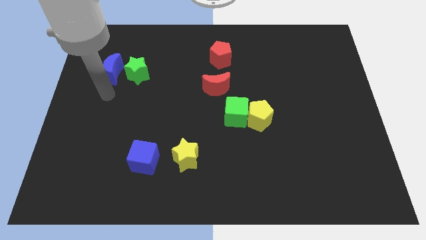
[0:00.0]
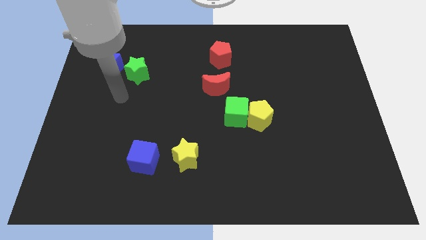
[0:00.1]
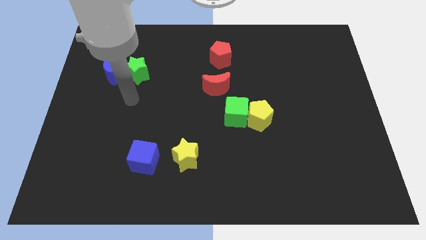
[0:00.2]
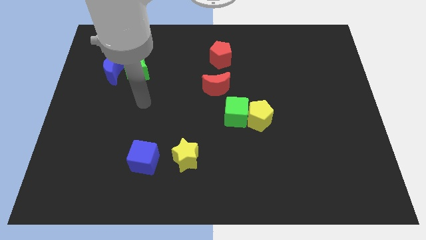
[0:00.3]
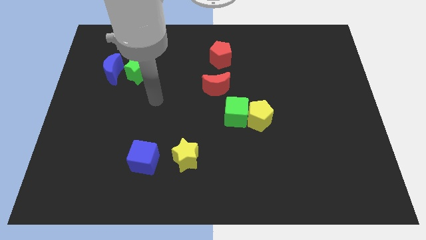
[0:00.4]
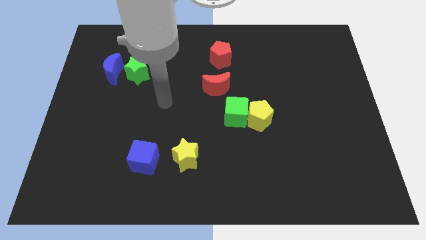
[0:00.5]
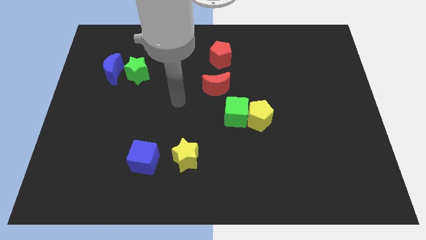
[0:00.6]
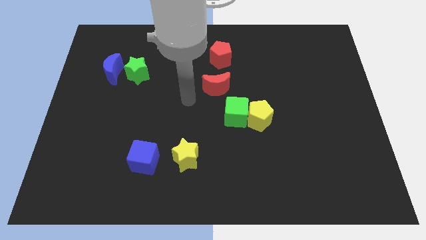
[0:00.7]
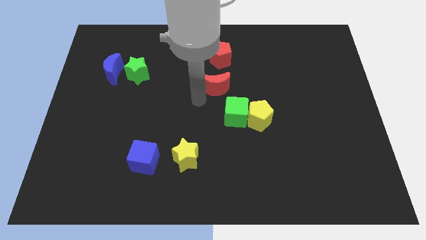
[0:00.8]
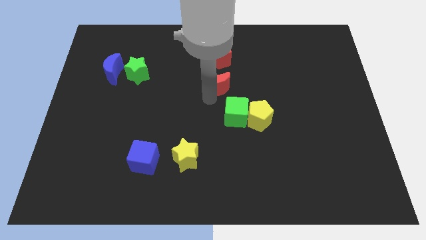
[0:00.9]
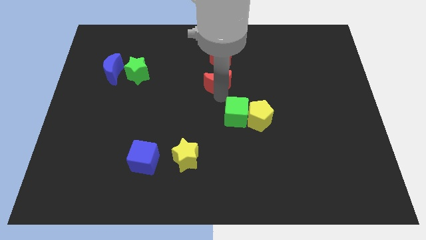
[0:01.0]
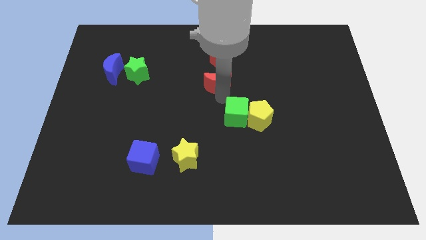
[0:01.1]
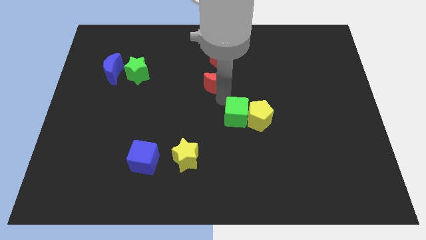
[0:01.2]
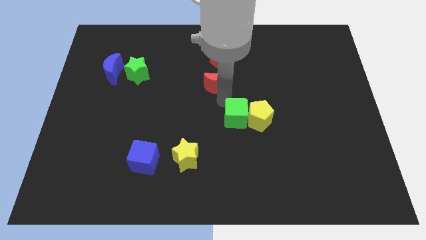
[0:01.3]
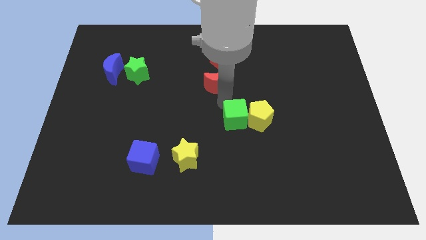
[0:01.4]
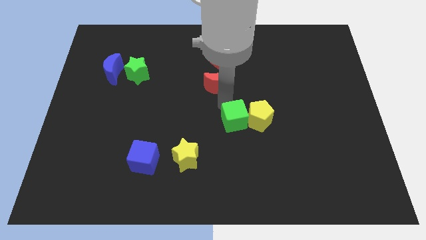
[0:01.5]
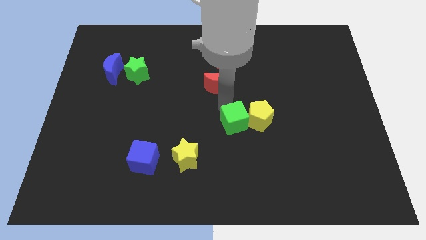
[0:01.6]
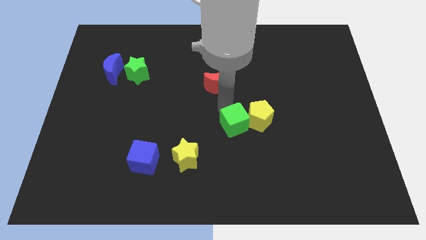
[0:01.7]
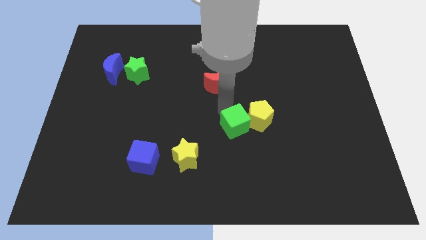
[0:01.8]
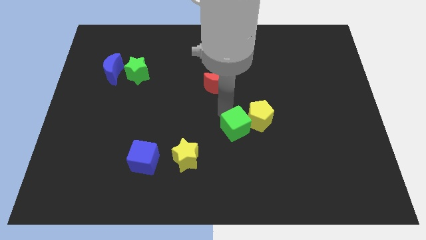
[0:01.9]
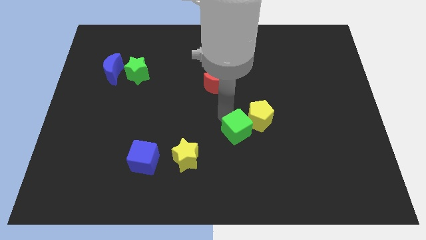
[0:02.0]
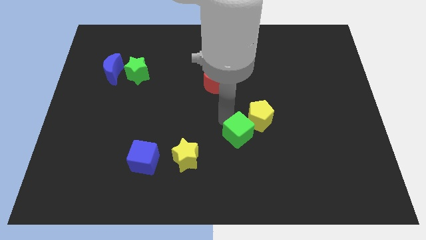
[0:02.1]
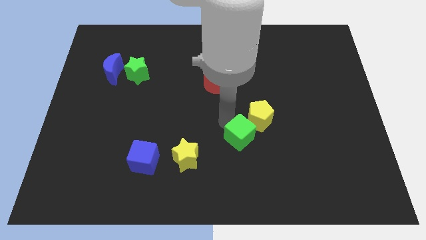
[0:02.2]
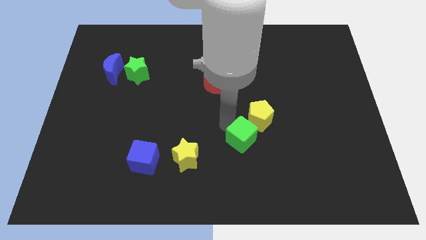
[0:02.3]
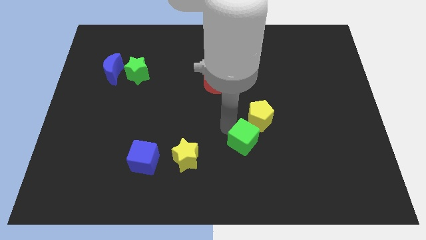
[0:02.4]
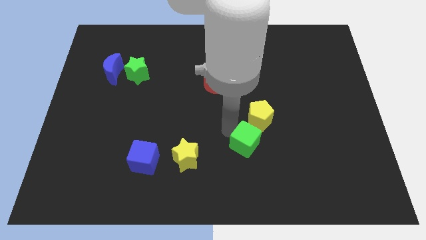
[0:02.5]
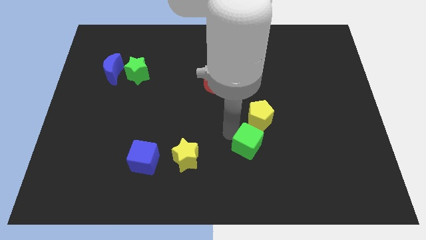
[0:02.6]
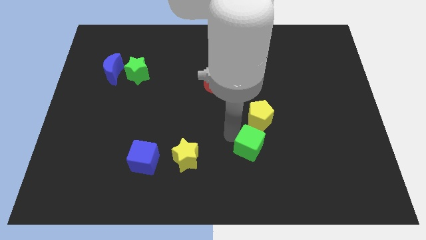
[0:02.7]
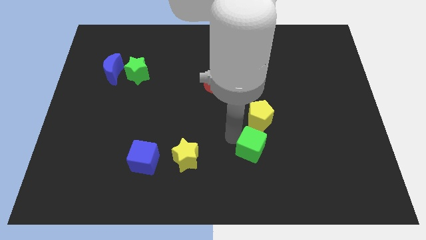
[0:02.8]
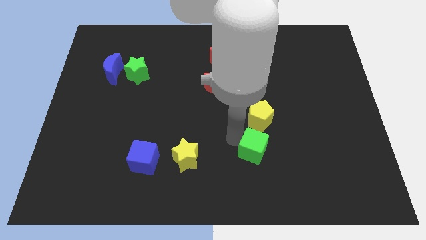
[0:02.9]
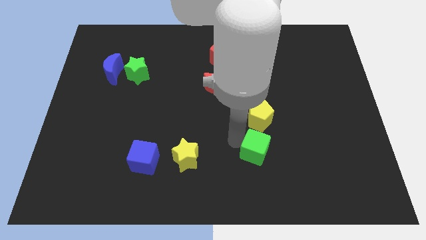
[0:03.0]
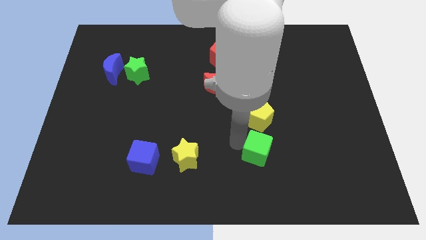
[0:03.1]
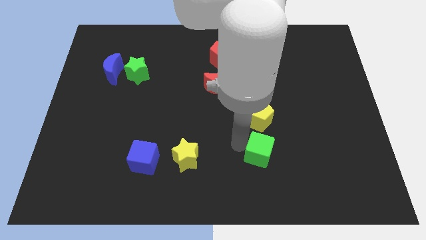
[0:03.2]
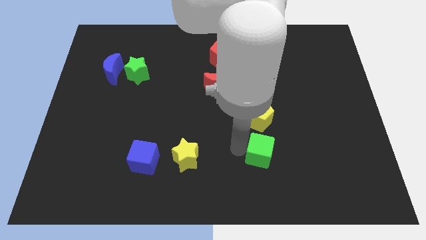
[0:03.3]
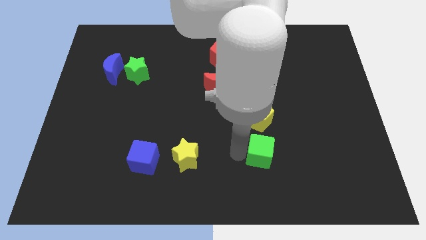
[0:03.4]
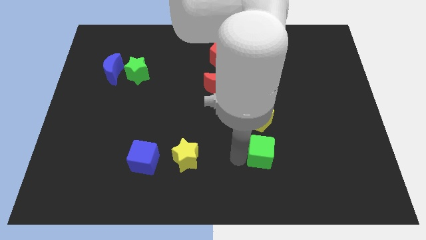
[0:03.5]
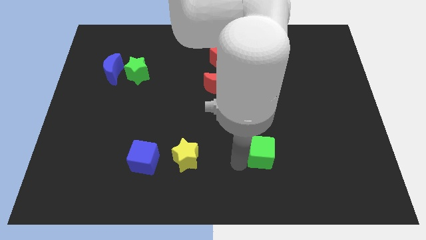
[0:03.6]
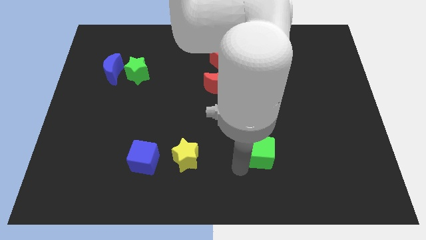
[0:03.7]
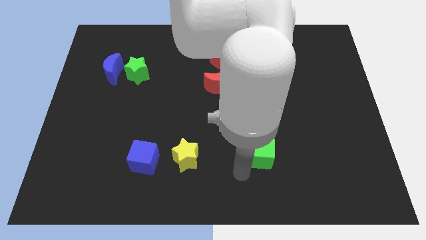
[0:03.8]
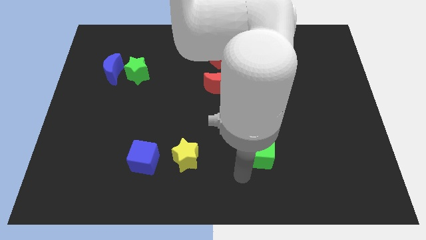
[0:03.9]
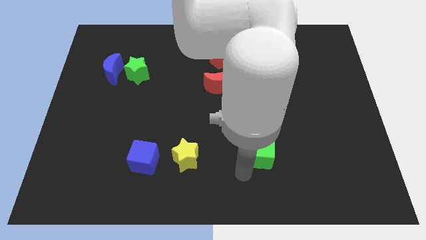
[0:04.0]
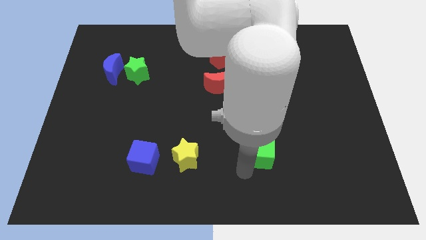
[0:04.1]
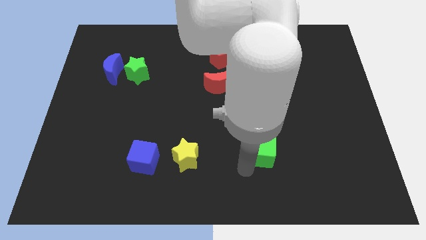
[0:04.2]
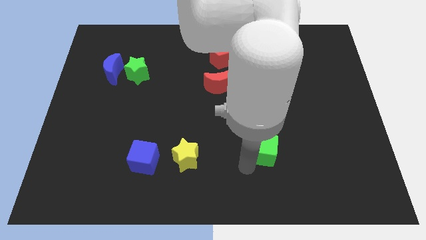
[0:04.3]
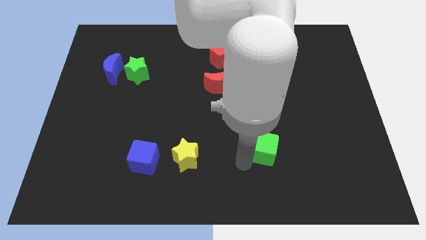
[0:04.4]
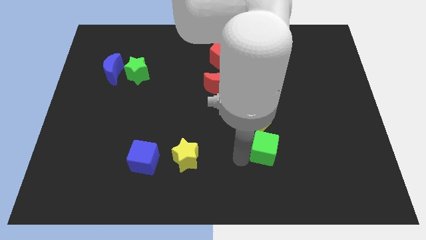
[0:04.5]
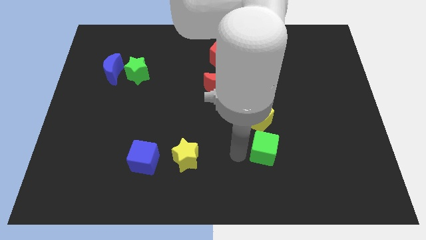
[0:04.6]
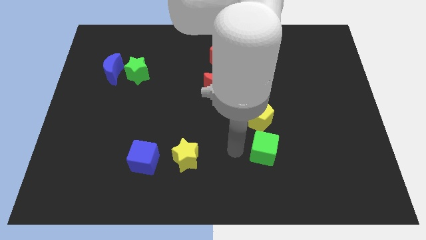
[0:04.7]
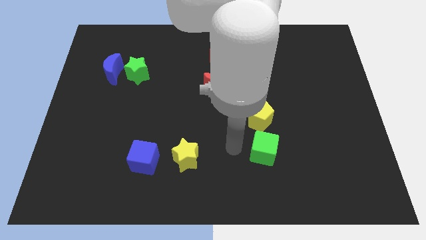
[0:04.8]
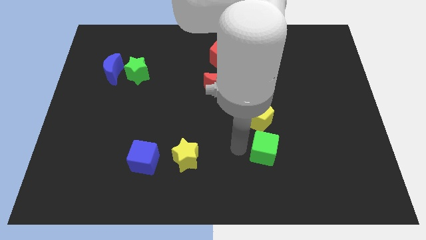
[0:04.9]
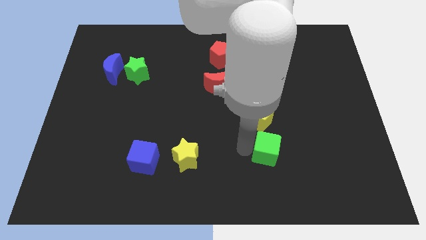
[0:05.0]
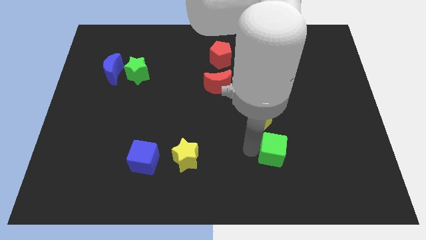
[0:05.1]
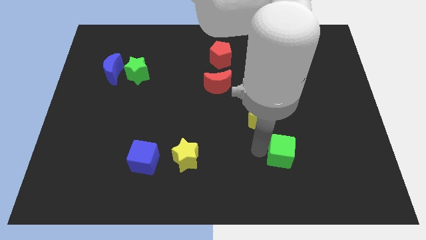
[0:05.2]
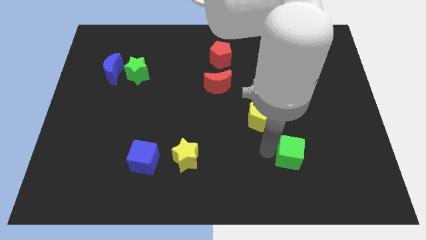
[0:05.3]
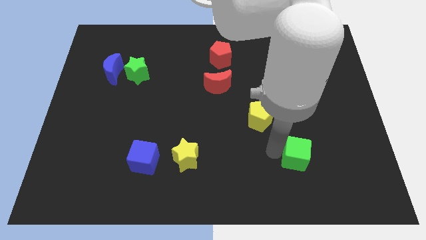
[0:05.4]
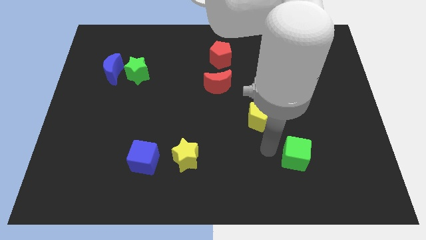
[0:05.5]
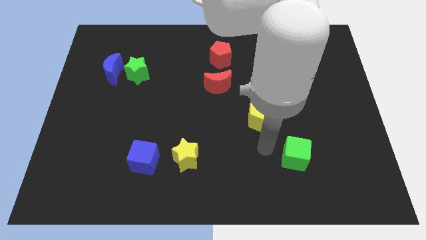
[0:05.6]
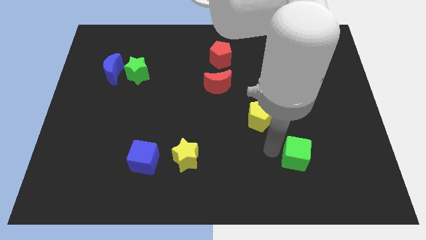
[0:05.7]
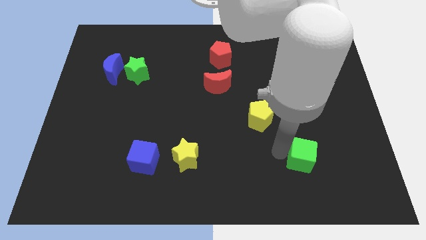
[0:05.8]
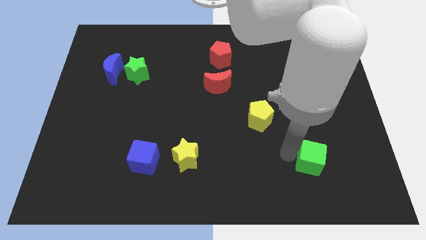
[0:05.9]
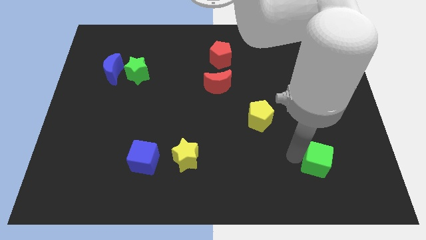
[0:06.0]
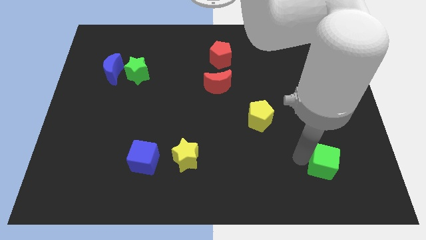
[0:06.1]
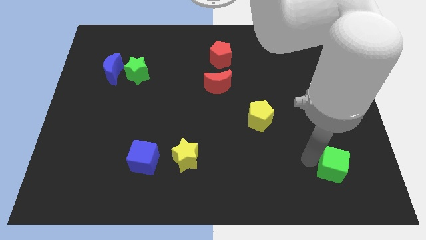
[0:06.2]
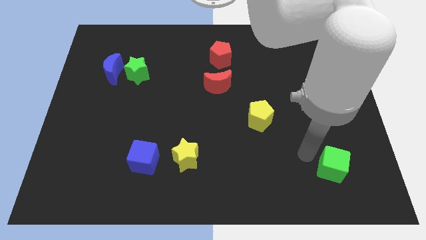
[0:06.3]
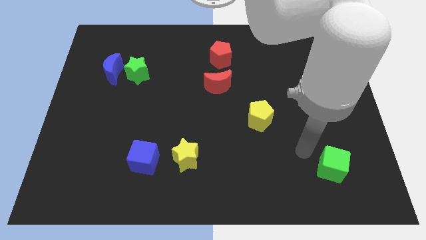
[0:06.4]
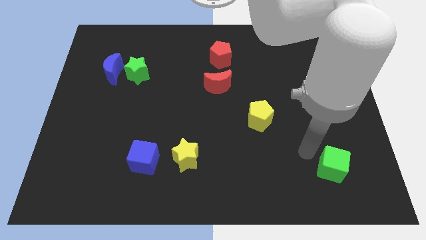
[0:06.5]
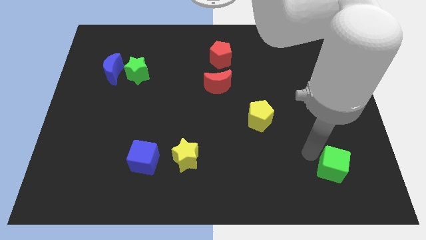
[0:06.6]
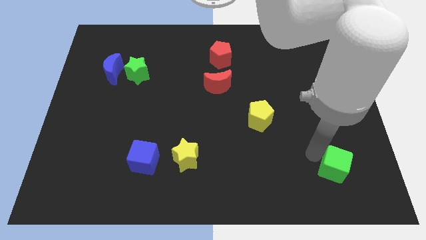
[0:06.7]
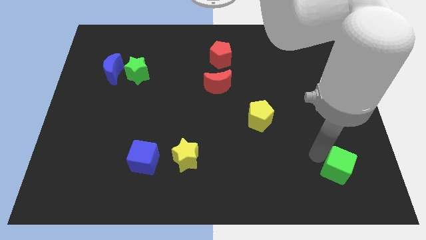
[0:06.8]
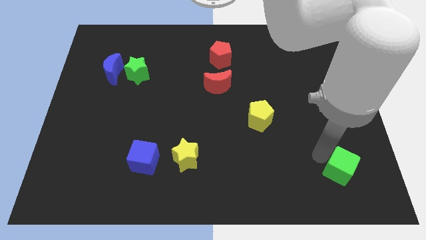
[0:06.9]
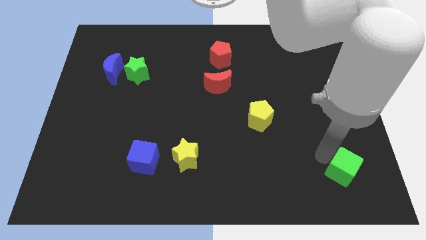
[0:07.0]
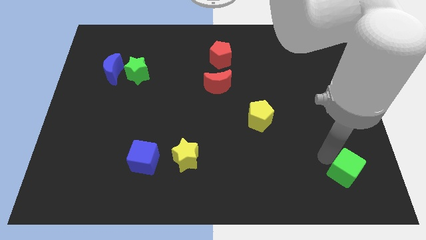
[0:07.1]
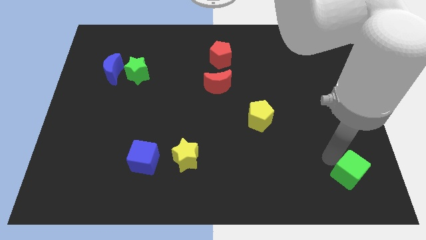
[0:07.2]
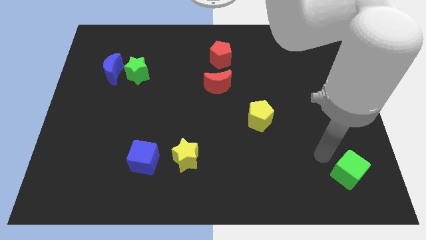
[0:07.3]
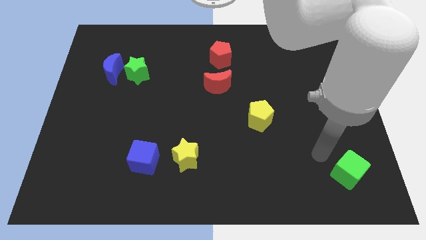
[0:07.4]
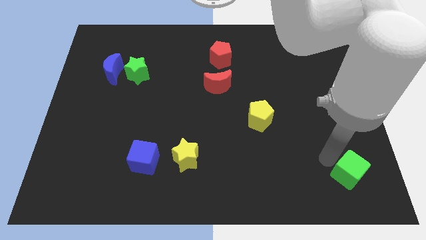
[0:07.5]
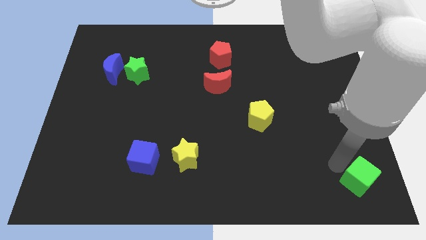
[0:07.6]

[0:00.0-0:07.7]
move the green cube to the bottom right corner

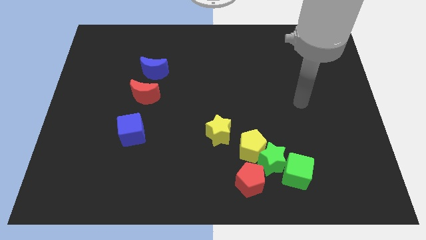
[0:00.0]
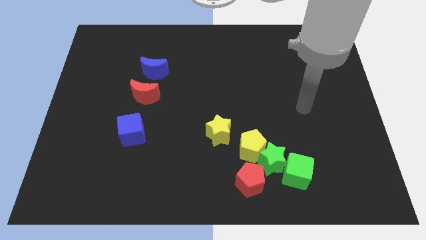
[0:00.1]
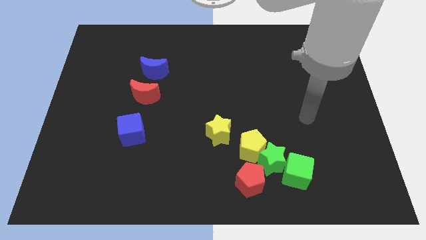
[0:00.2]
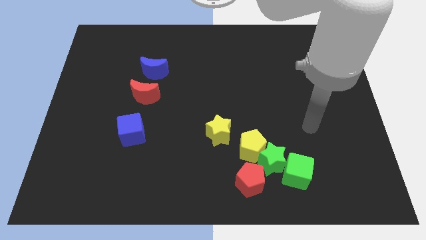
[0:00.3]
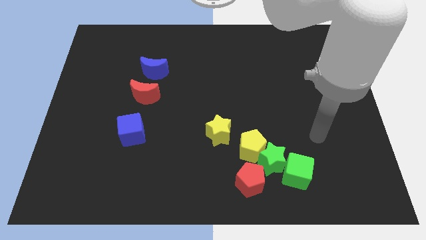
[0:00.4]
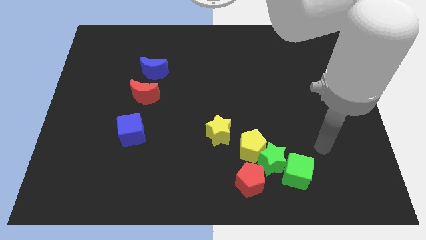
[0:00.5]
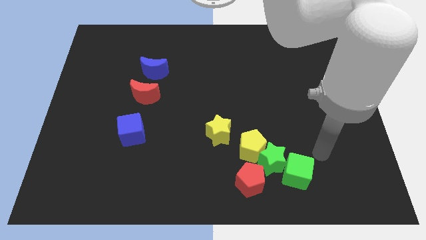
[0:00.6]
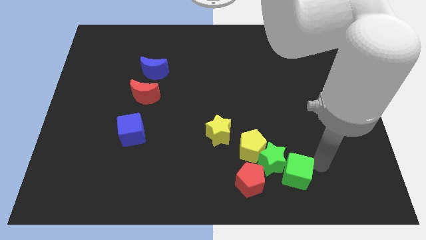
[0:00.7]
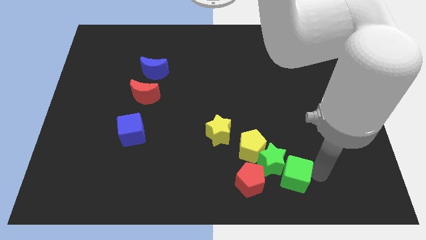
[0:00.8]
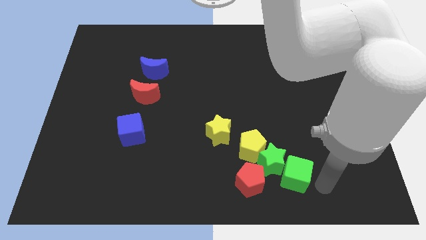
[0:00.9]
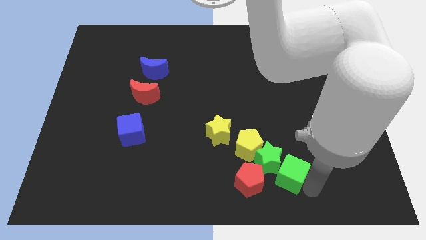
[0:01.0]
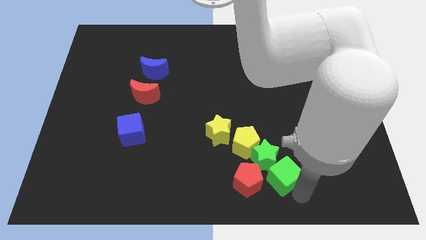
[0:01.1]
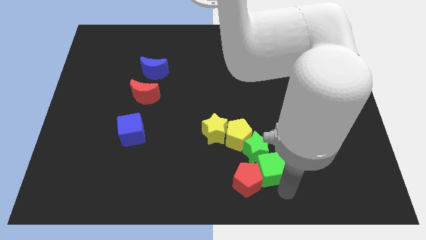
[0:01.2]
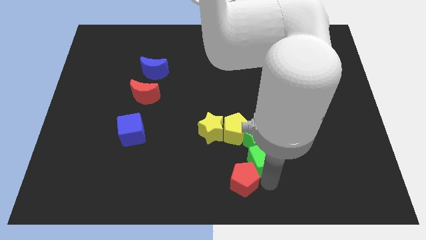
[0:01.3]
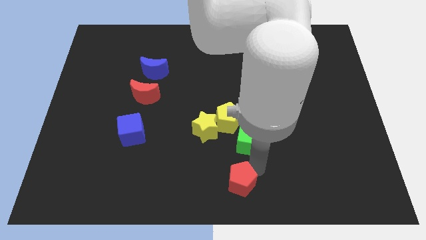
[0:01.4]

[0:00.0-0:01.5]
slide the green star to the middle of the board
